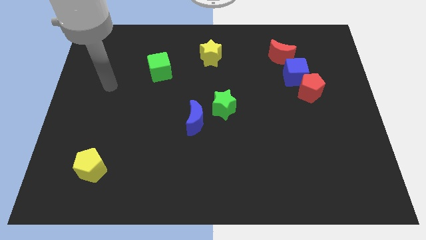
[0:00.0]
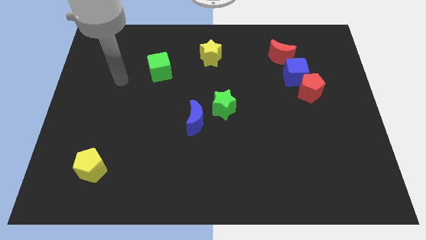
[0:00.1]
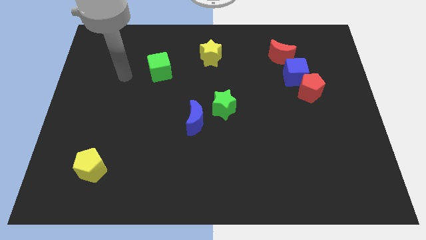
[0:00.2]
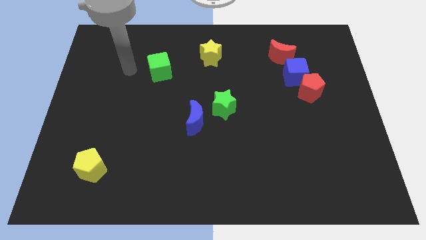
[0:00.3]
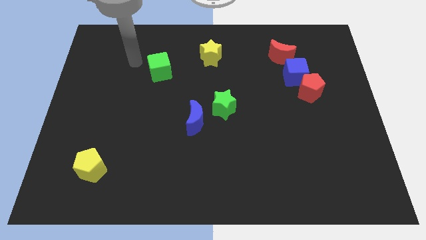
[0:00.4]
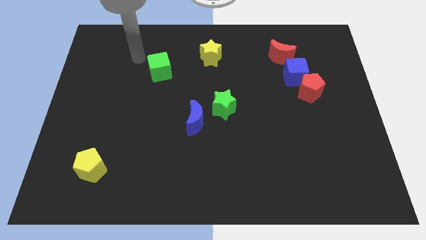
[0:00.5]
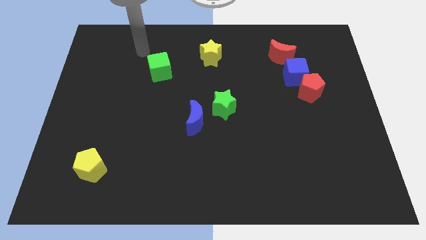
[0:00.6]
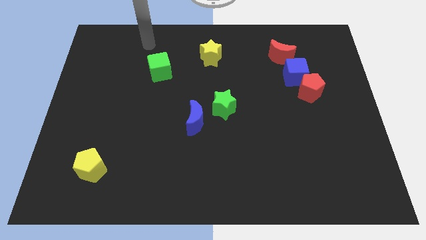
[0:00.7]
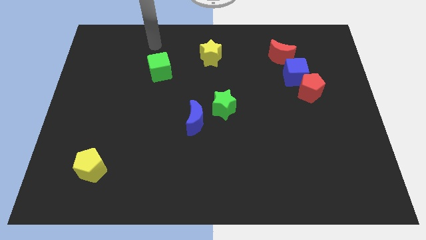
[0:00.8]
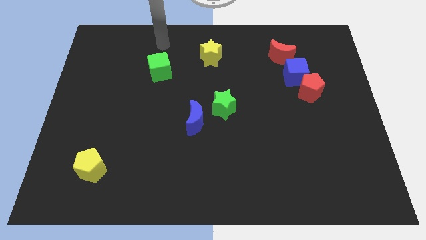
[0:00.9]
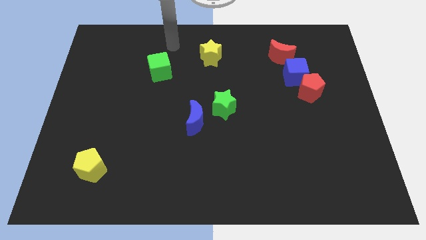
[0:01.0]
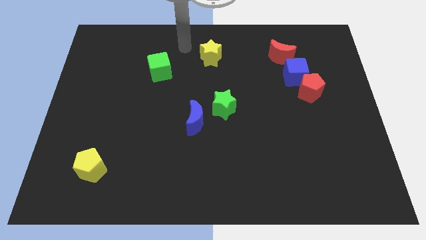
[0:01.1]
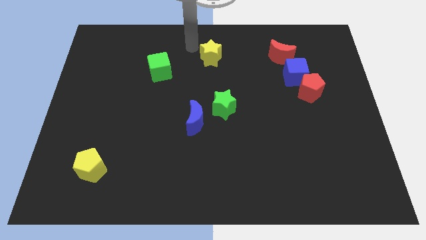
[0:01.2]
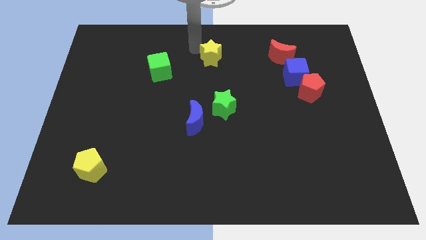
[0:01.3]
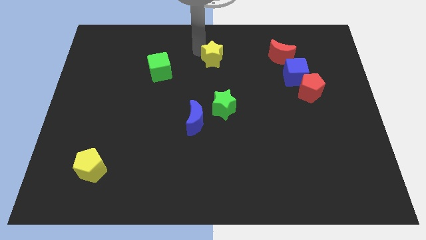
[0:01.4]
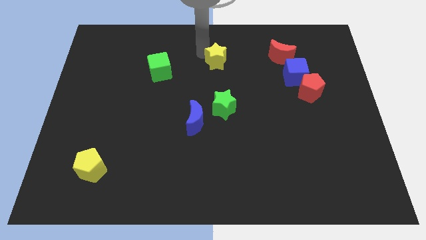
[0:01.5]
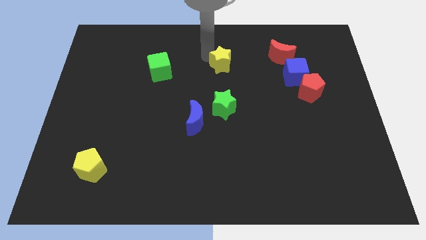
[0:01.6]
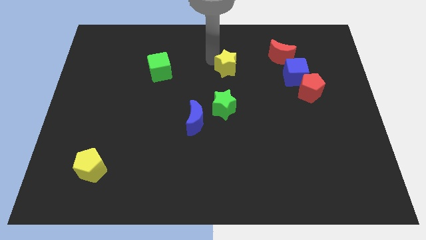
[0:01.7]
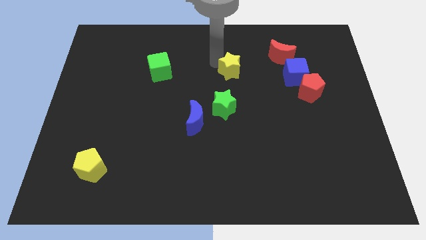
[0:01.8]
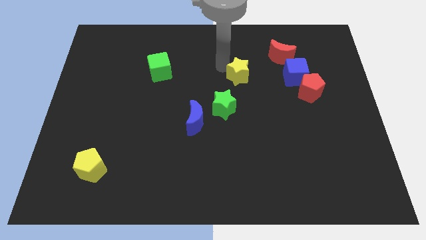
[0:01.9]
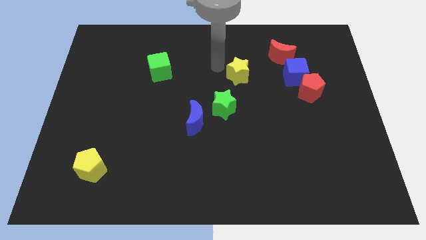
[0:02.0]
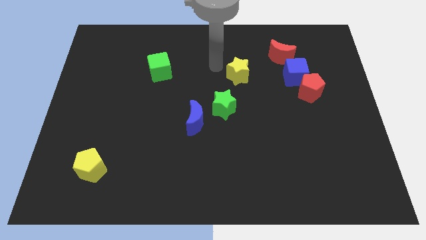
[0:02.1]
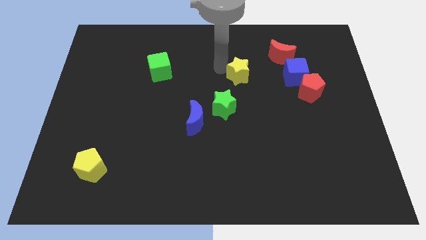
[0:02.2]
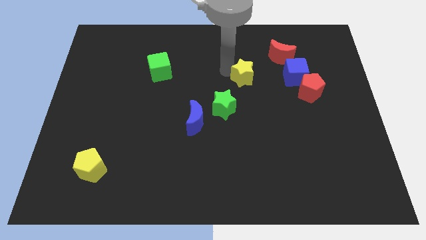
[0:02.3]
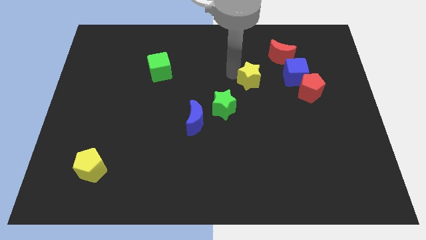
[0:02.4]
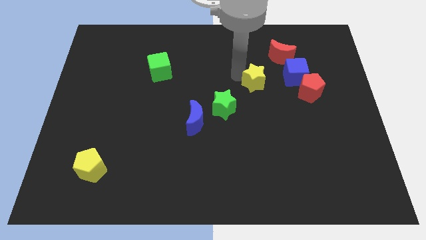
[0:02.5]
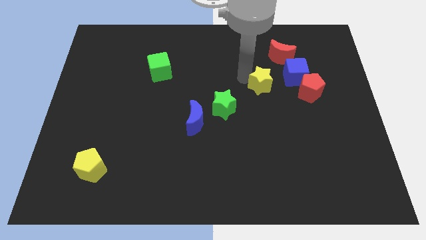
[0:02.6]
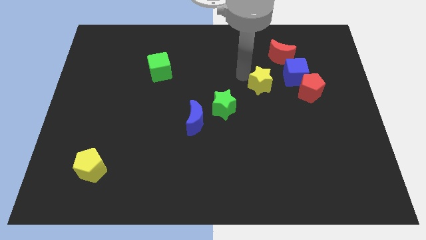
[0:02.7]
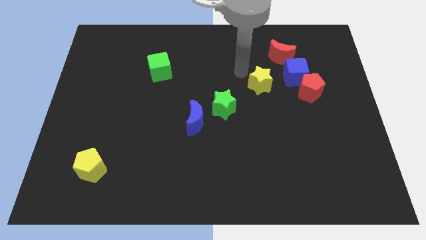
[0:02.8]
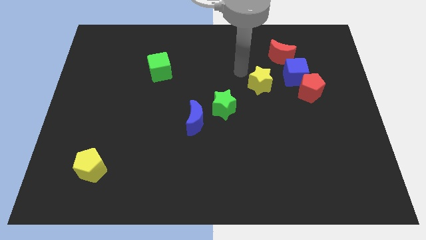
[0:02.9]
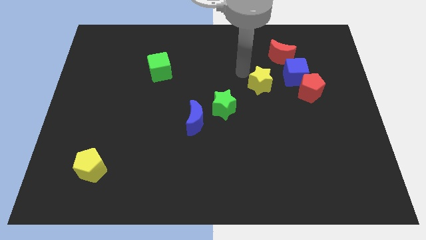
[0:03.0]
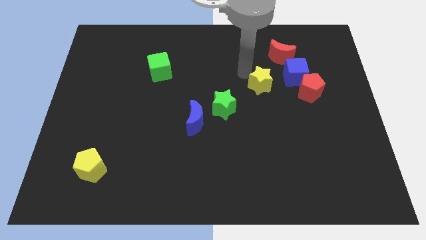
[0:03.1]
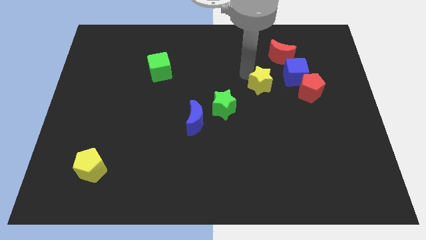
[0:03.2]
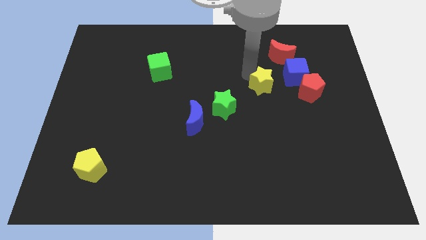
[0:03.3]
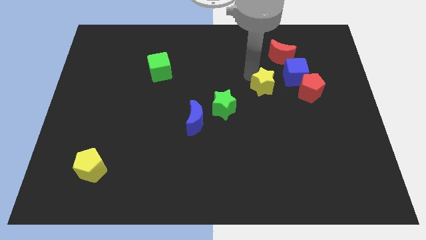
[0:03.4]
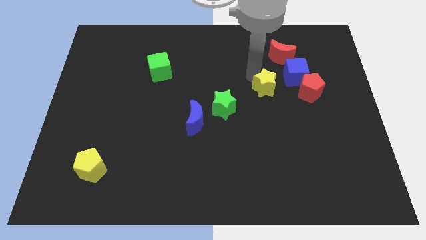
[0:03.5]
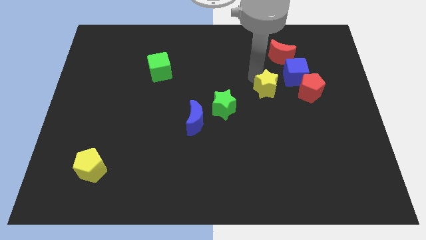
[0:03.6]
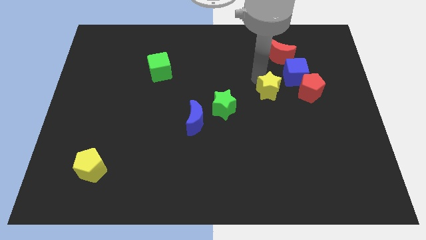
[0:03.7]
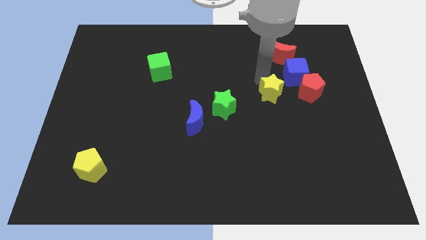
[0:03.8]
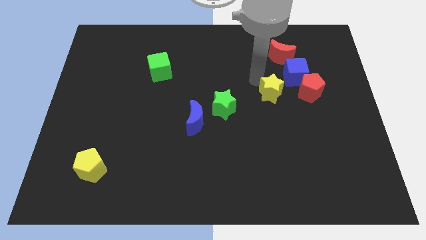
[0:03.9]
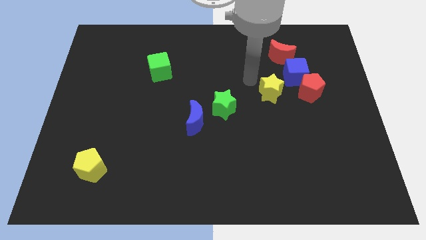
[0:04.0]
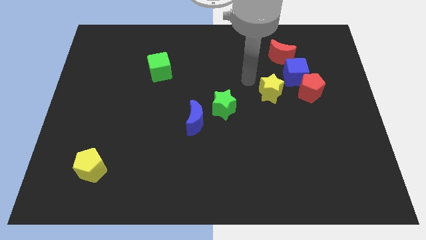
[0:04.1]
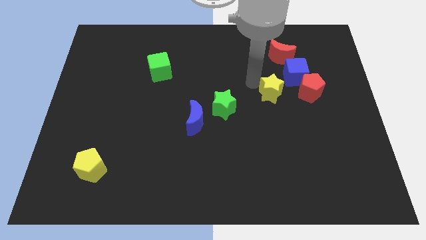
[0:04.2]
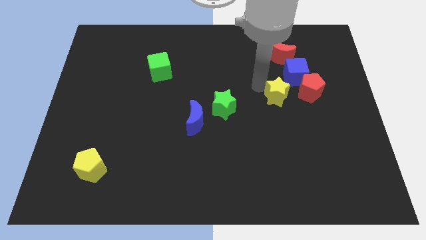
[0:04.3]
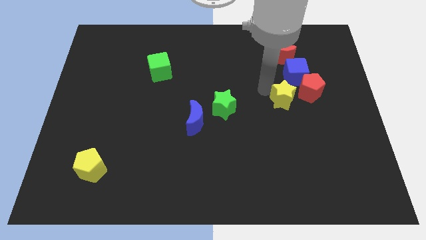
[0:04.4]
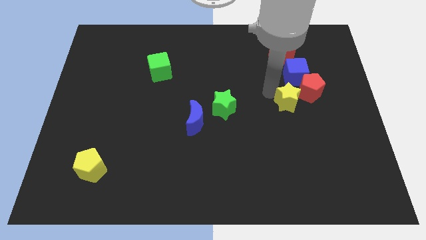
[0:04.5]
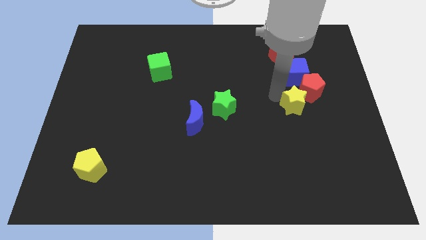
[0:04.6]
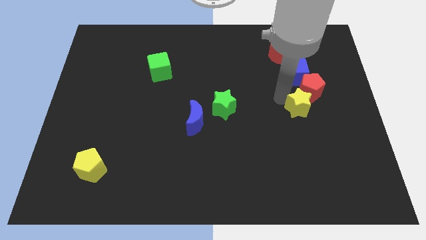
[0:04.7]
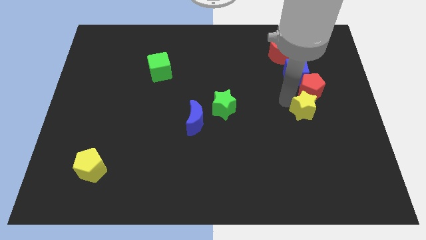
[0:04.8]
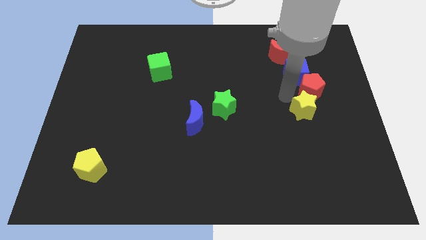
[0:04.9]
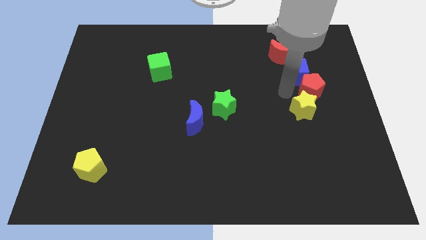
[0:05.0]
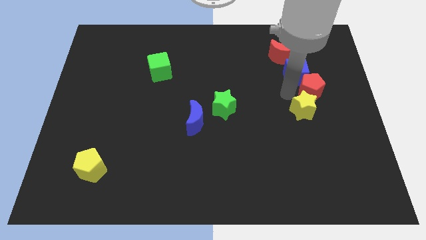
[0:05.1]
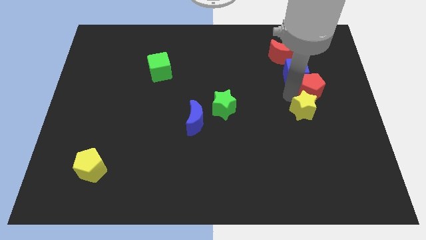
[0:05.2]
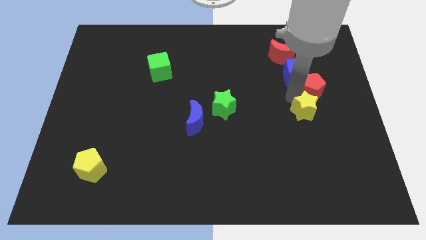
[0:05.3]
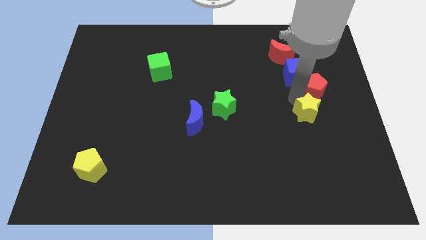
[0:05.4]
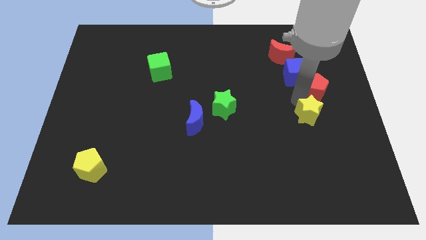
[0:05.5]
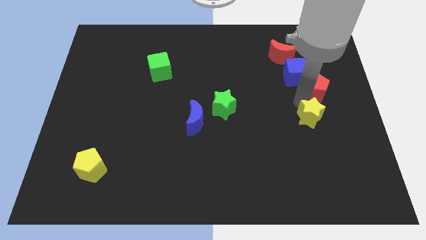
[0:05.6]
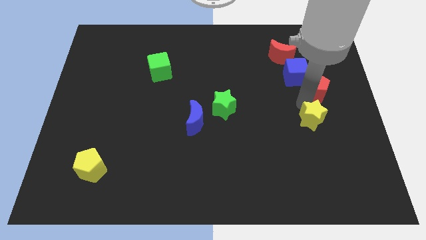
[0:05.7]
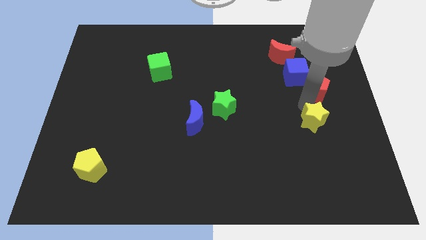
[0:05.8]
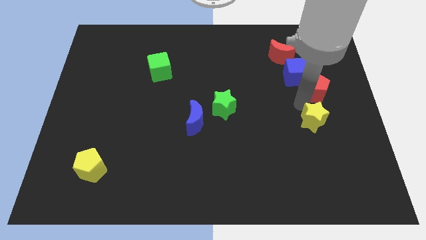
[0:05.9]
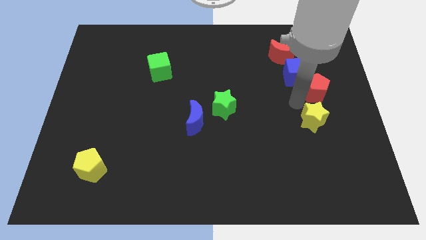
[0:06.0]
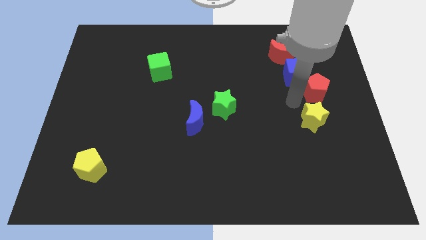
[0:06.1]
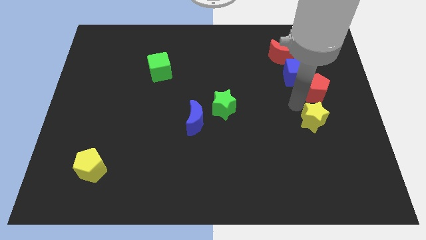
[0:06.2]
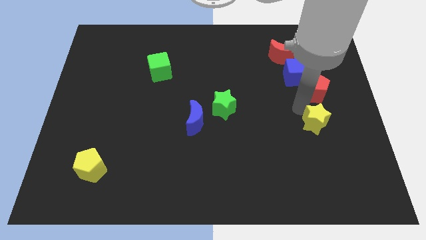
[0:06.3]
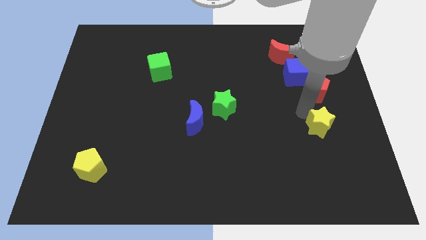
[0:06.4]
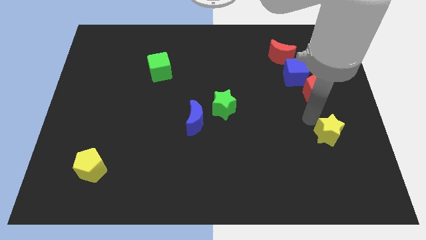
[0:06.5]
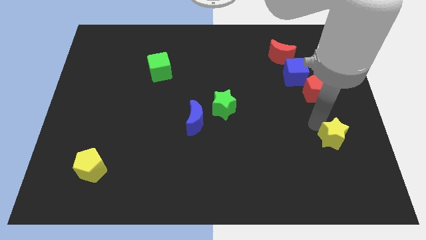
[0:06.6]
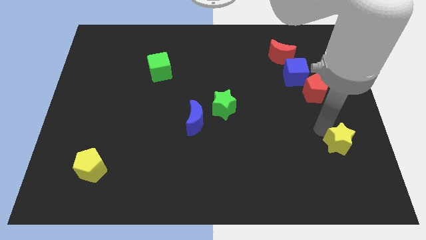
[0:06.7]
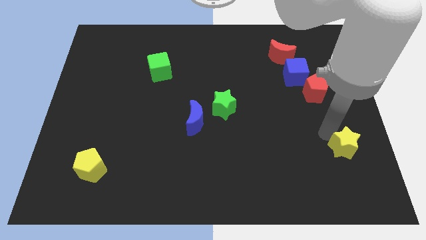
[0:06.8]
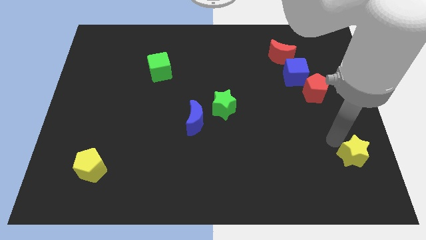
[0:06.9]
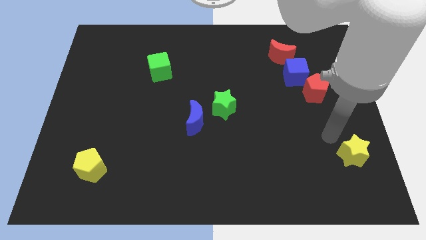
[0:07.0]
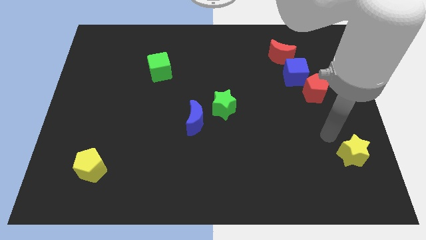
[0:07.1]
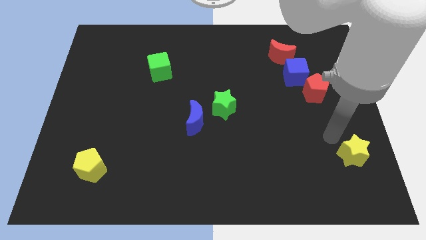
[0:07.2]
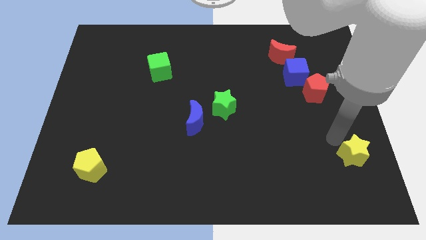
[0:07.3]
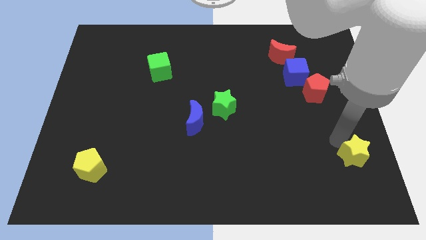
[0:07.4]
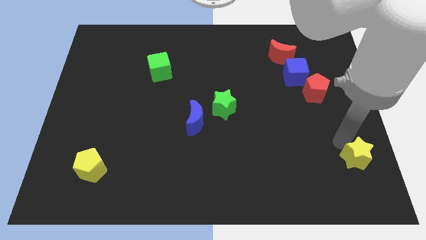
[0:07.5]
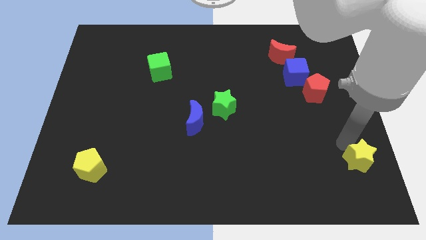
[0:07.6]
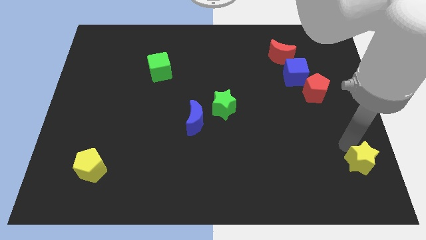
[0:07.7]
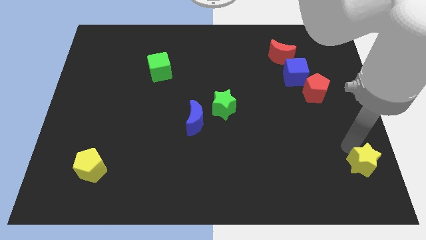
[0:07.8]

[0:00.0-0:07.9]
put the yellow star to the bottom right corner
